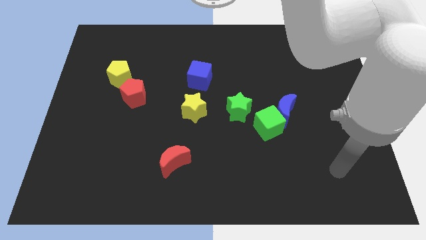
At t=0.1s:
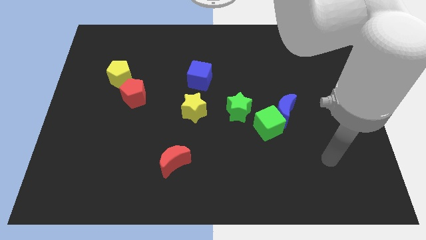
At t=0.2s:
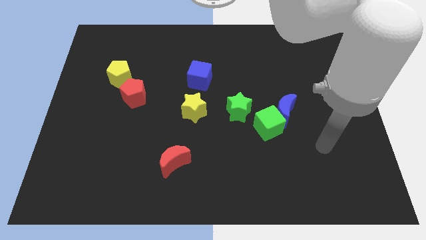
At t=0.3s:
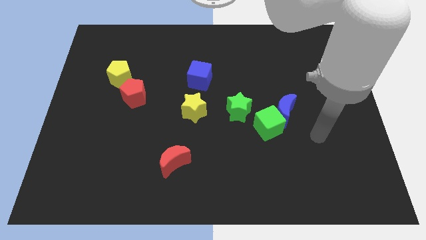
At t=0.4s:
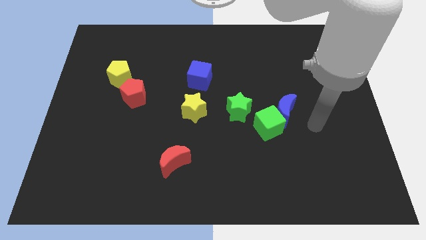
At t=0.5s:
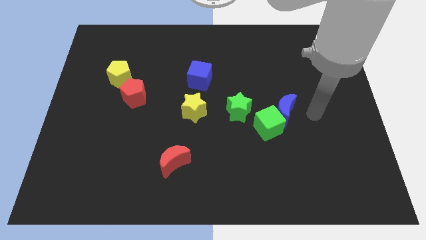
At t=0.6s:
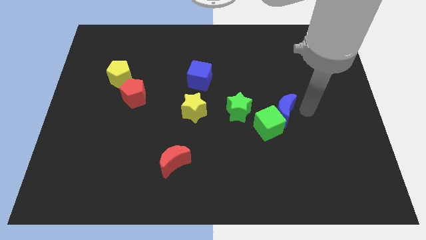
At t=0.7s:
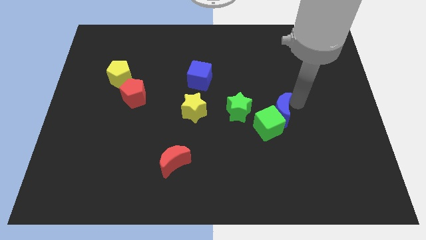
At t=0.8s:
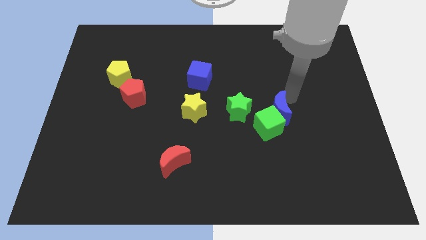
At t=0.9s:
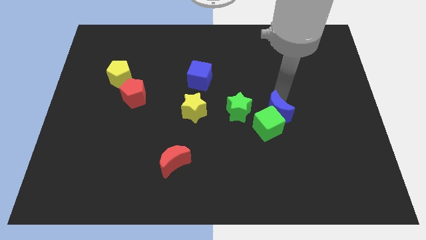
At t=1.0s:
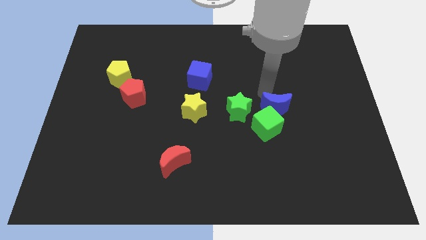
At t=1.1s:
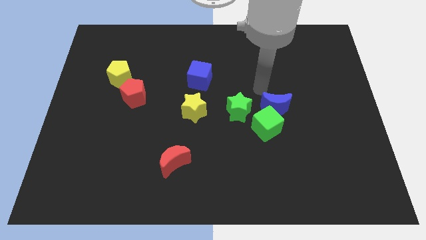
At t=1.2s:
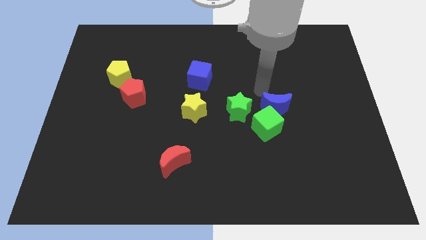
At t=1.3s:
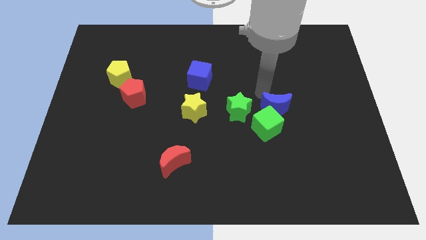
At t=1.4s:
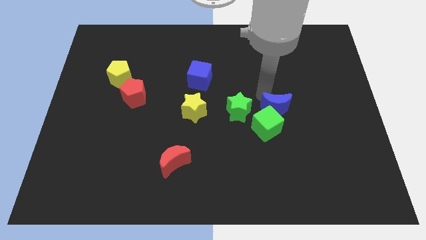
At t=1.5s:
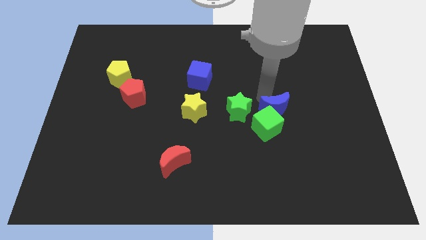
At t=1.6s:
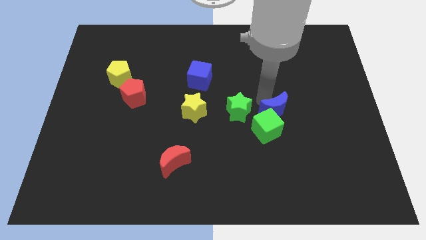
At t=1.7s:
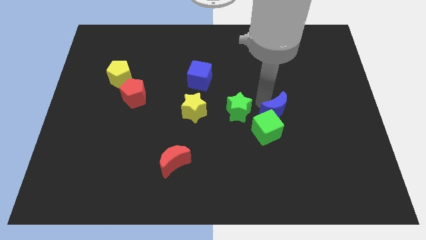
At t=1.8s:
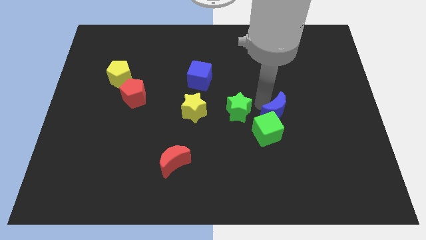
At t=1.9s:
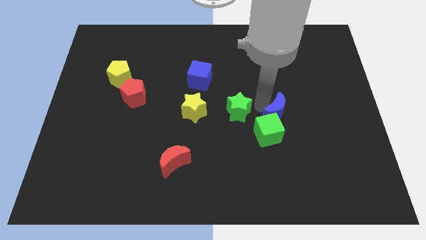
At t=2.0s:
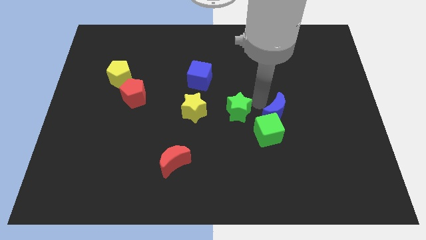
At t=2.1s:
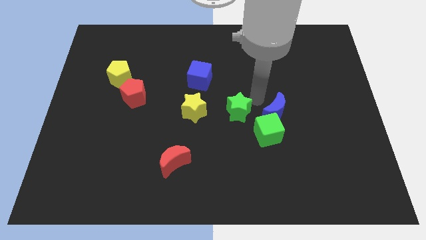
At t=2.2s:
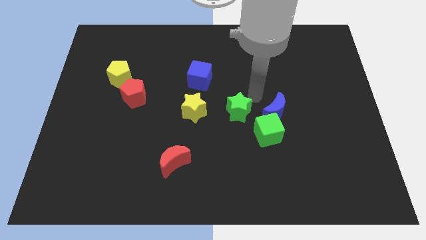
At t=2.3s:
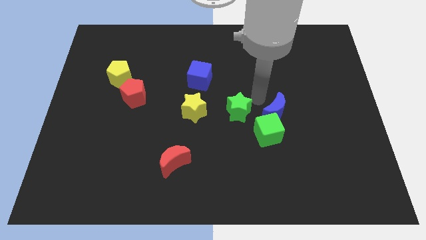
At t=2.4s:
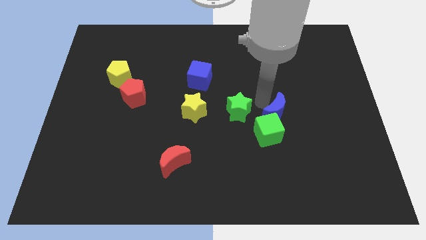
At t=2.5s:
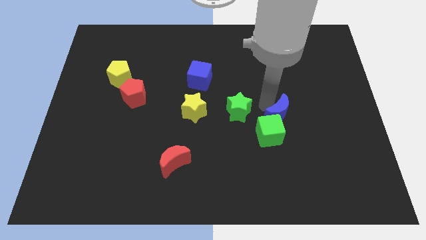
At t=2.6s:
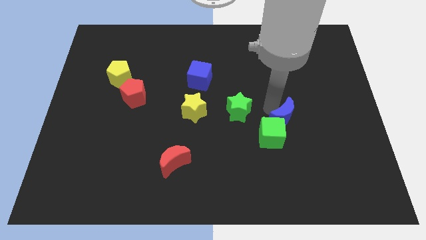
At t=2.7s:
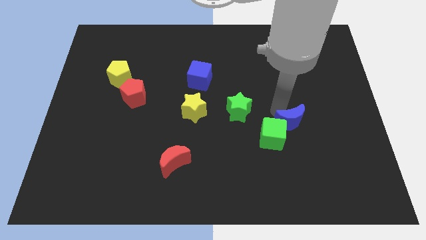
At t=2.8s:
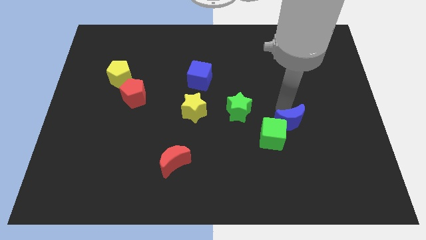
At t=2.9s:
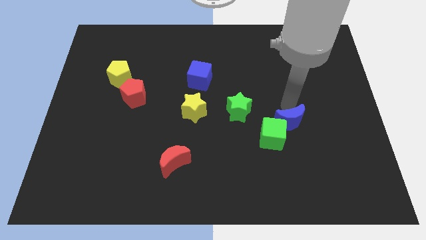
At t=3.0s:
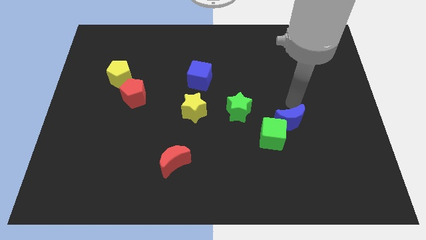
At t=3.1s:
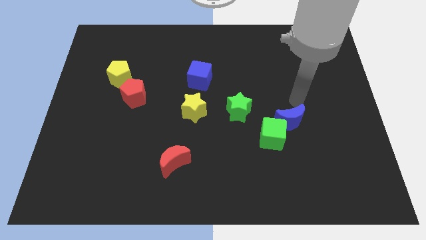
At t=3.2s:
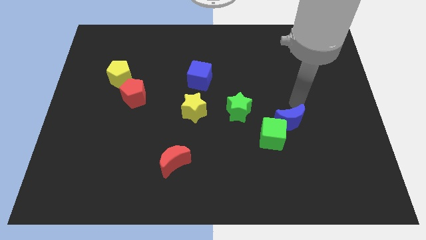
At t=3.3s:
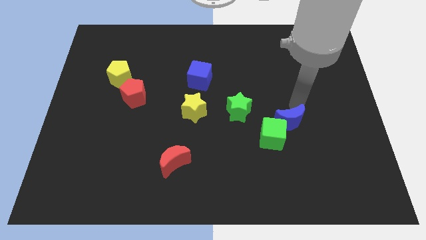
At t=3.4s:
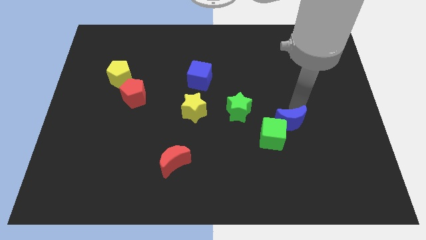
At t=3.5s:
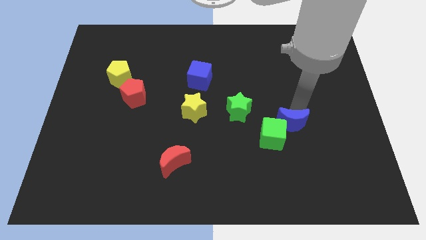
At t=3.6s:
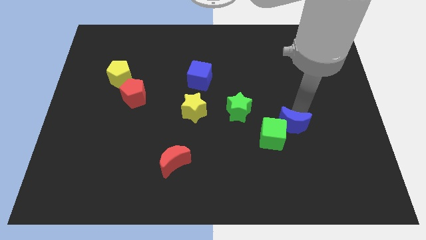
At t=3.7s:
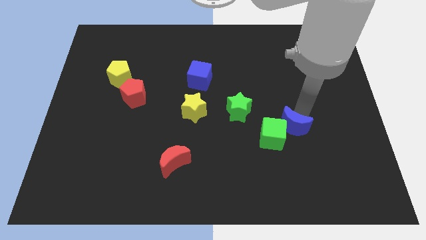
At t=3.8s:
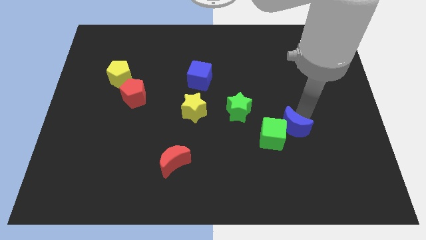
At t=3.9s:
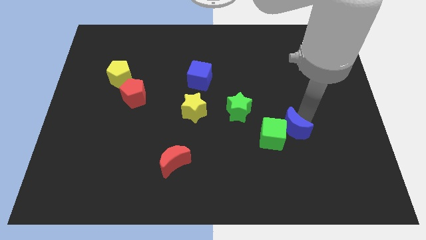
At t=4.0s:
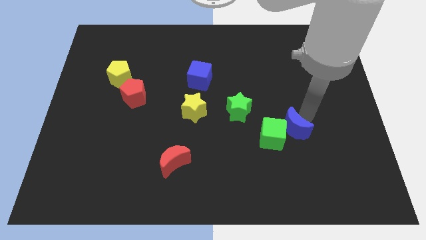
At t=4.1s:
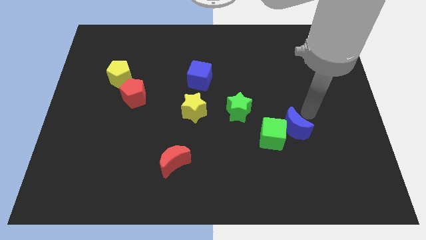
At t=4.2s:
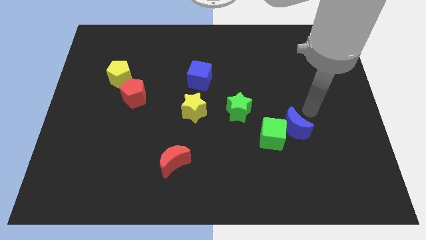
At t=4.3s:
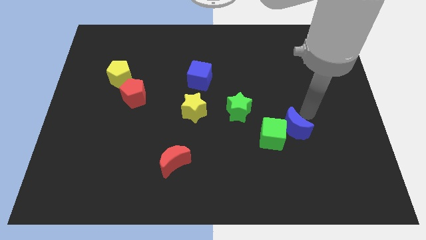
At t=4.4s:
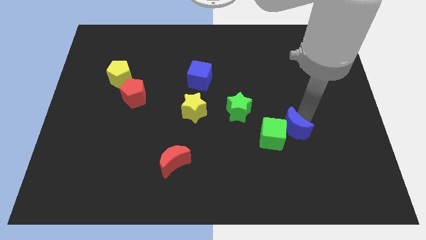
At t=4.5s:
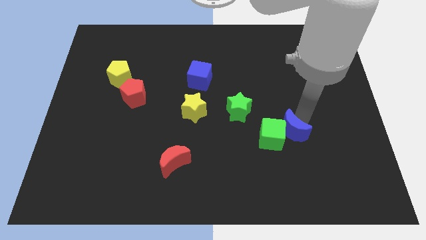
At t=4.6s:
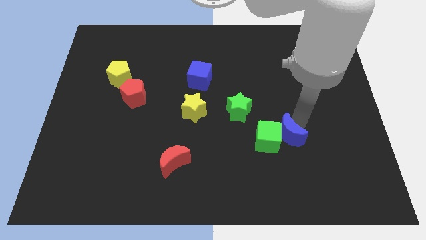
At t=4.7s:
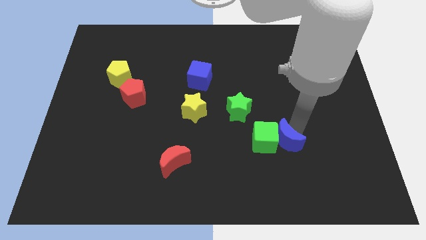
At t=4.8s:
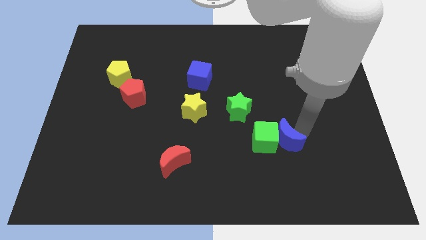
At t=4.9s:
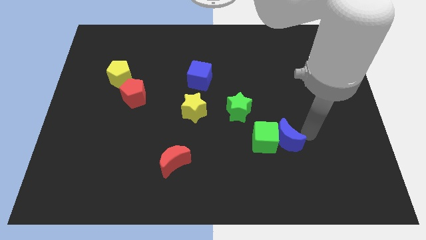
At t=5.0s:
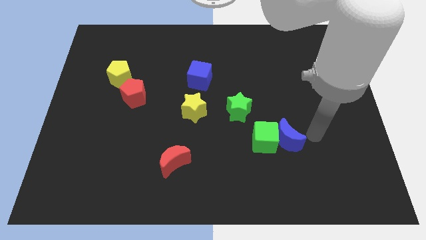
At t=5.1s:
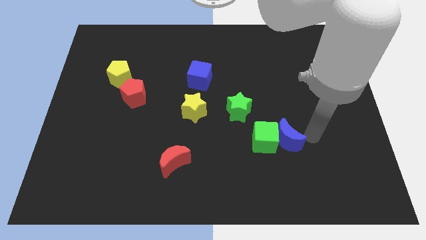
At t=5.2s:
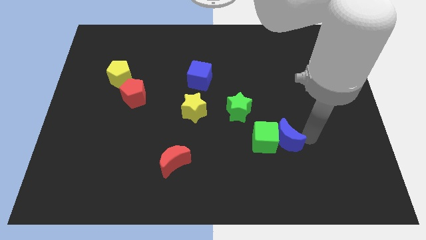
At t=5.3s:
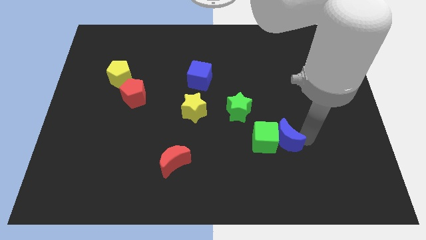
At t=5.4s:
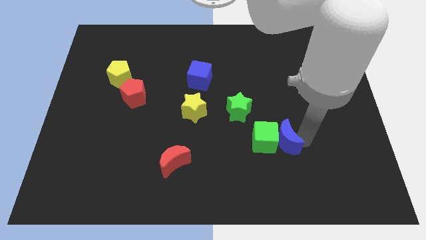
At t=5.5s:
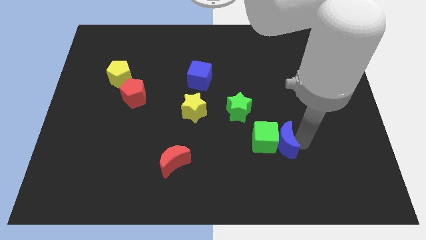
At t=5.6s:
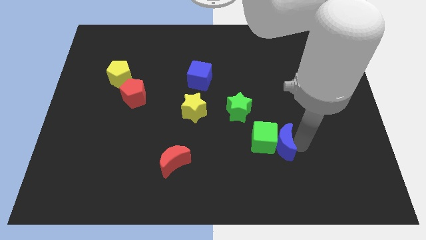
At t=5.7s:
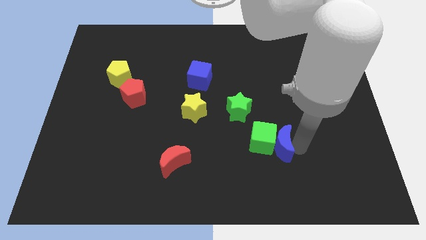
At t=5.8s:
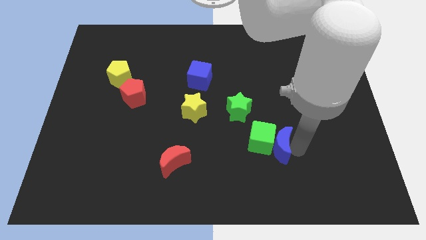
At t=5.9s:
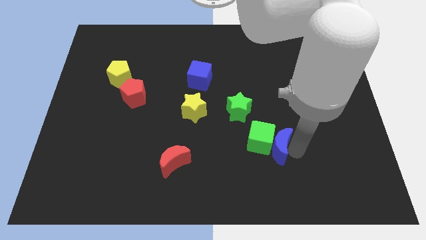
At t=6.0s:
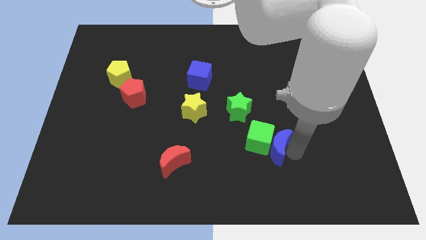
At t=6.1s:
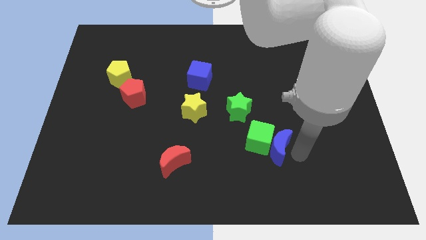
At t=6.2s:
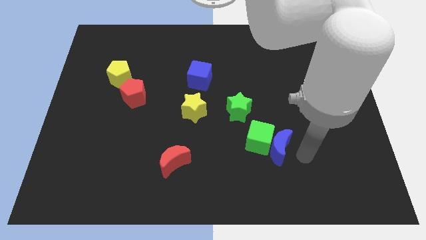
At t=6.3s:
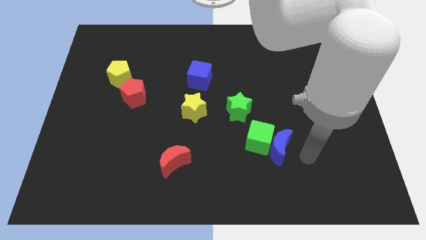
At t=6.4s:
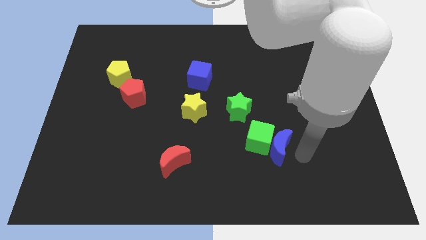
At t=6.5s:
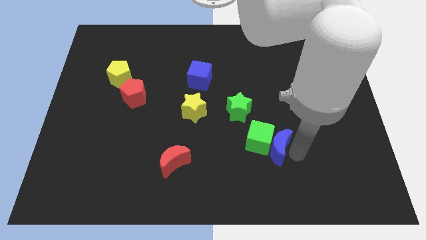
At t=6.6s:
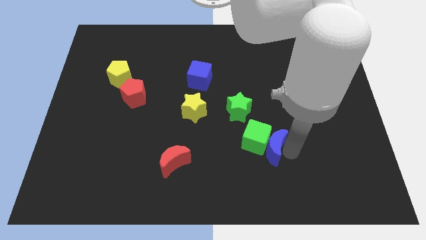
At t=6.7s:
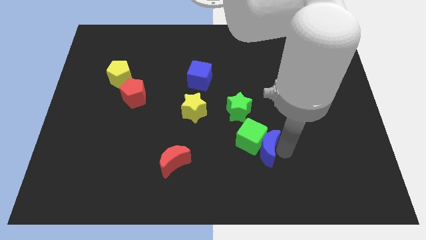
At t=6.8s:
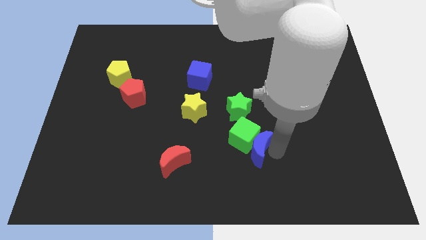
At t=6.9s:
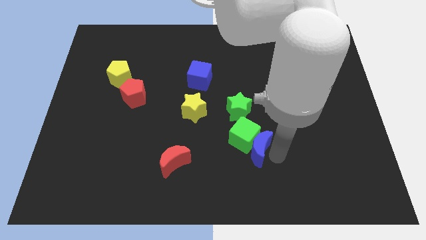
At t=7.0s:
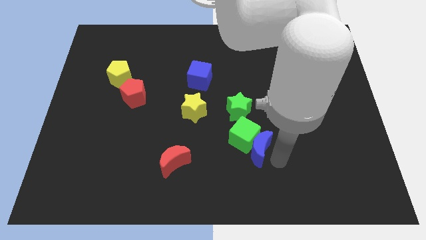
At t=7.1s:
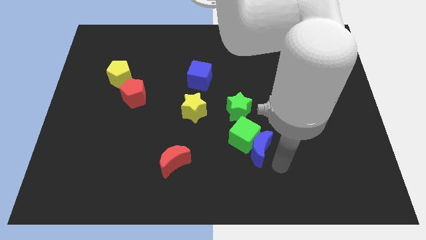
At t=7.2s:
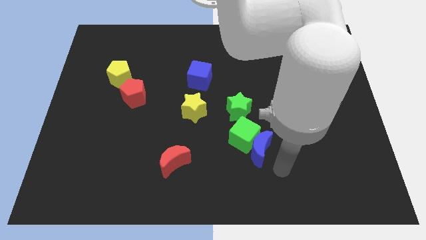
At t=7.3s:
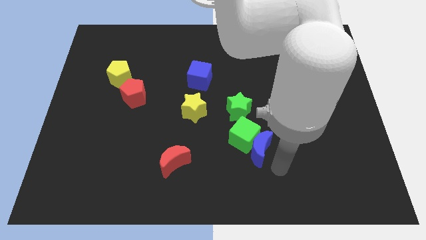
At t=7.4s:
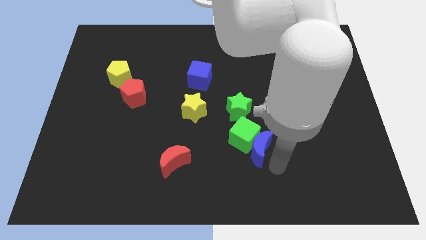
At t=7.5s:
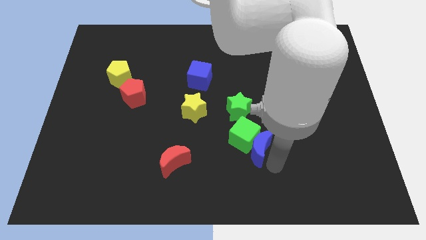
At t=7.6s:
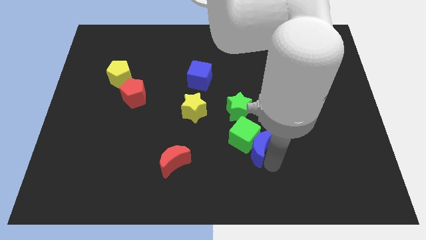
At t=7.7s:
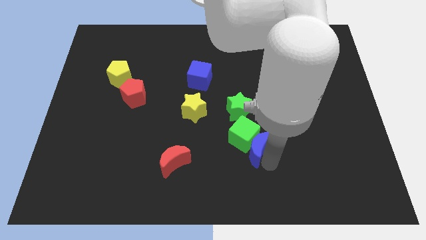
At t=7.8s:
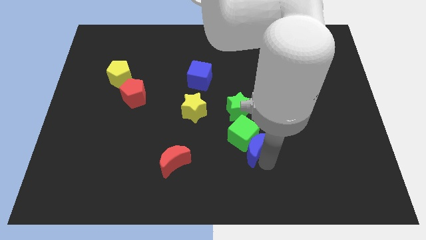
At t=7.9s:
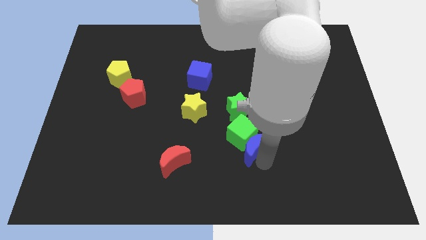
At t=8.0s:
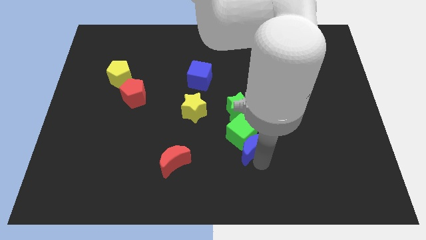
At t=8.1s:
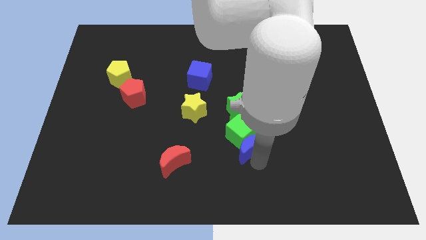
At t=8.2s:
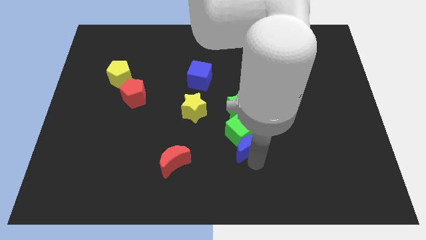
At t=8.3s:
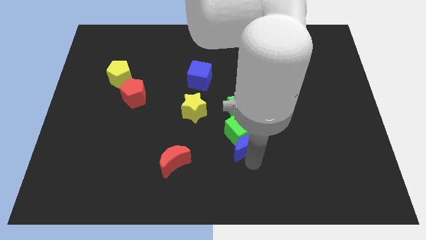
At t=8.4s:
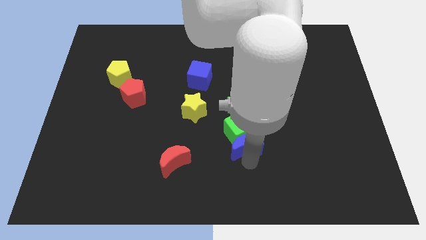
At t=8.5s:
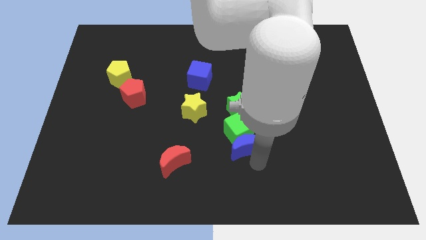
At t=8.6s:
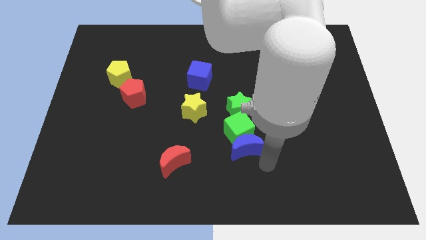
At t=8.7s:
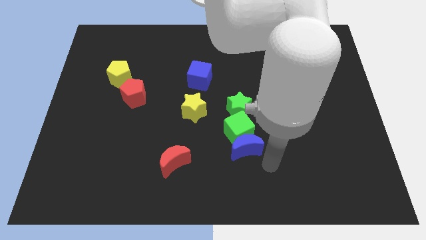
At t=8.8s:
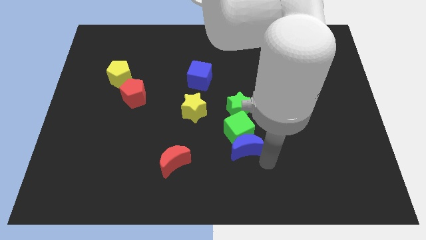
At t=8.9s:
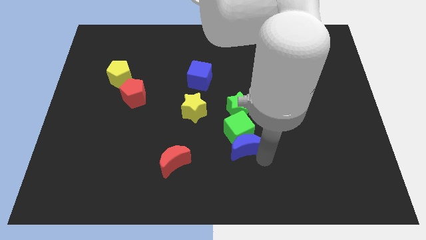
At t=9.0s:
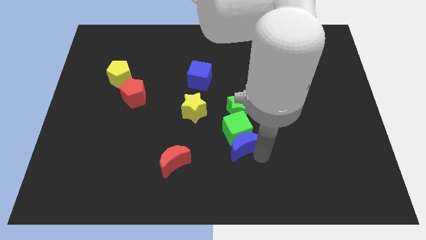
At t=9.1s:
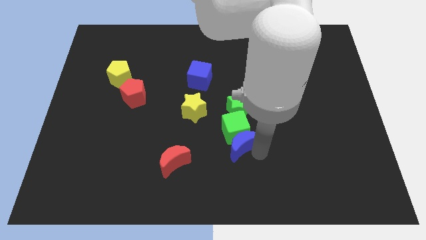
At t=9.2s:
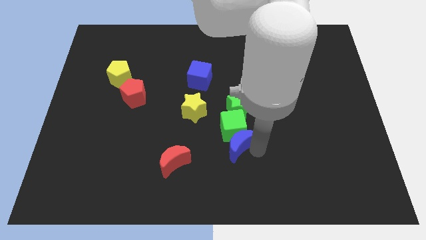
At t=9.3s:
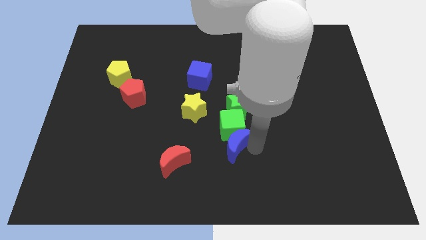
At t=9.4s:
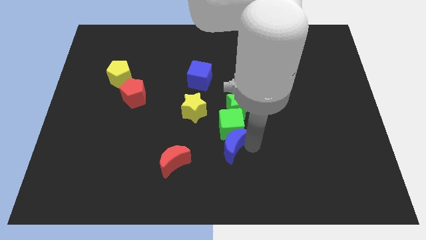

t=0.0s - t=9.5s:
put the blue moon to the bottom right side of the yellow star
